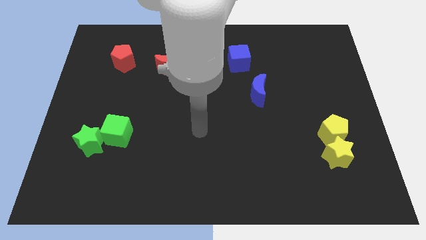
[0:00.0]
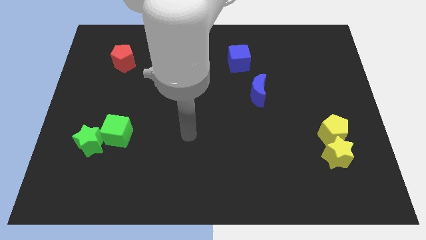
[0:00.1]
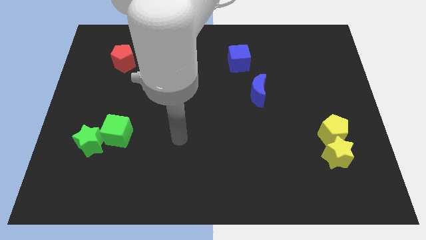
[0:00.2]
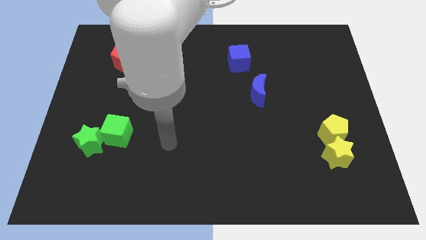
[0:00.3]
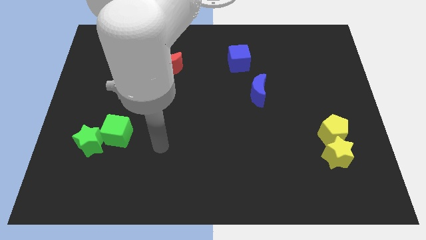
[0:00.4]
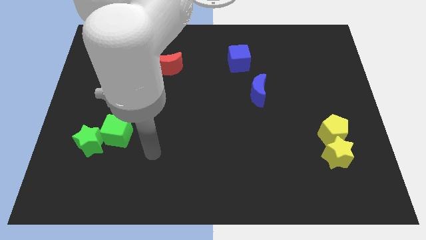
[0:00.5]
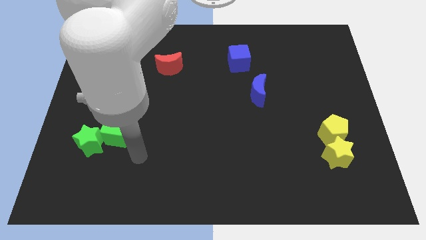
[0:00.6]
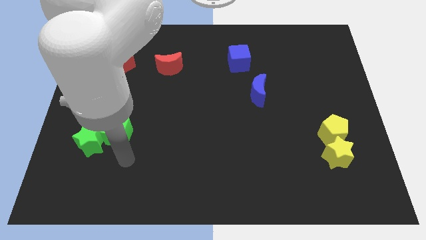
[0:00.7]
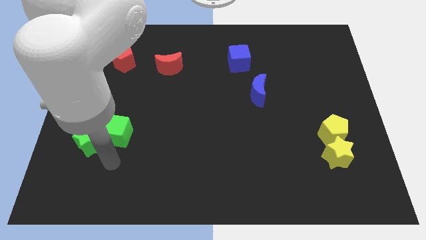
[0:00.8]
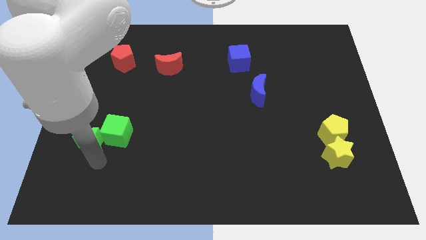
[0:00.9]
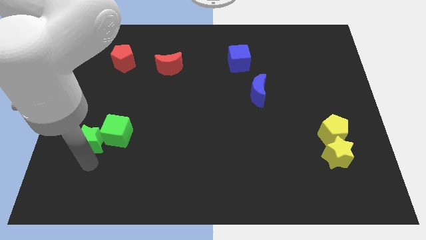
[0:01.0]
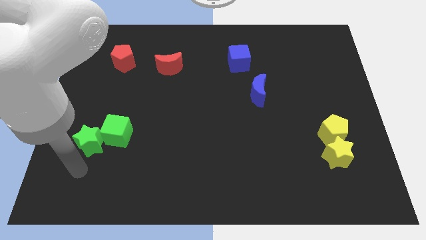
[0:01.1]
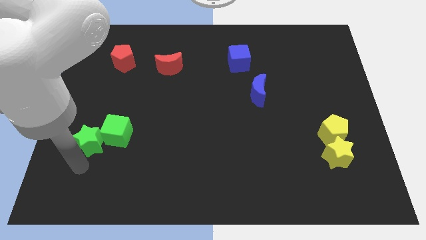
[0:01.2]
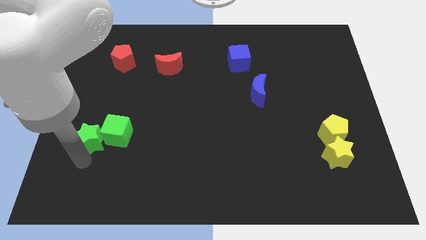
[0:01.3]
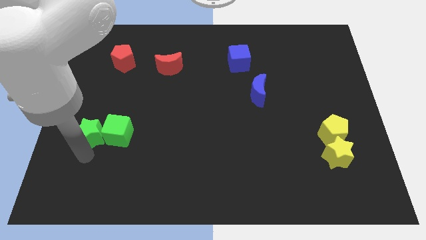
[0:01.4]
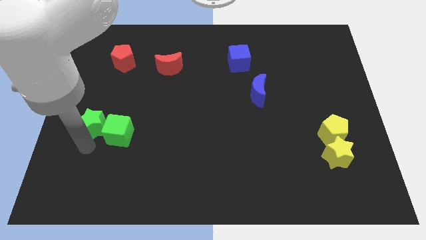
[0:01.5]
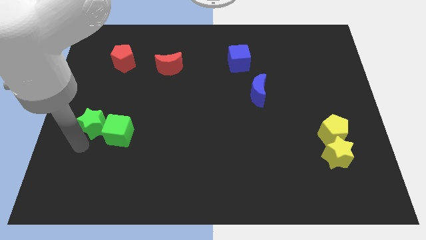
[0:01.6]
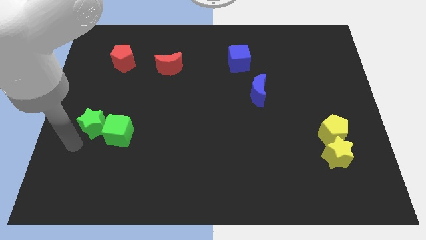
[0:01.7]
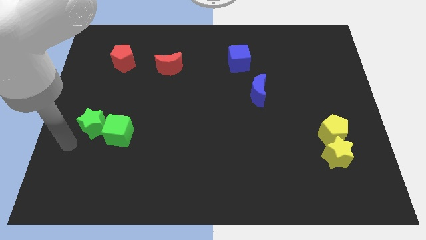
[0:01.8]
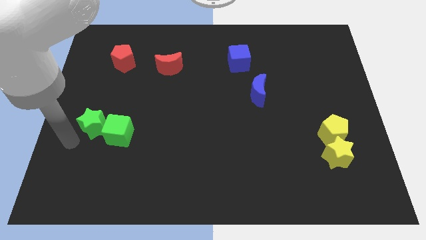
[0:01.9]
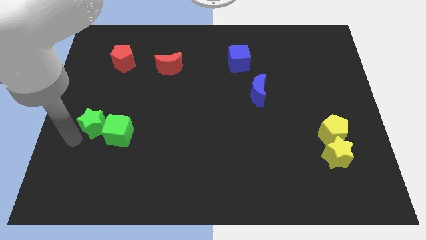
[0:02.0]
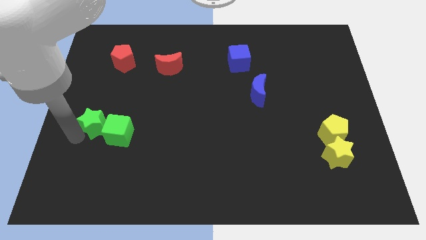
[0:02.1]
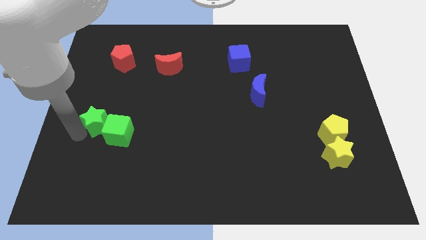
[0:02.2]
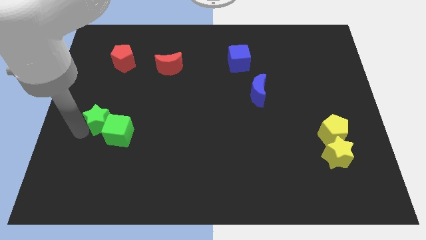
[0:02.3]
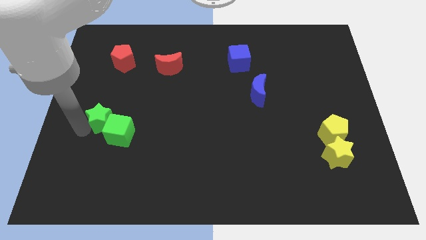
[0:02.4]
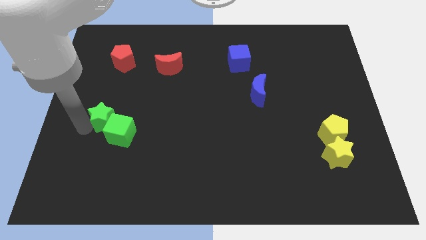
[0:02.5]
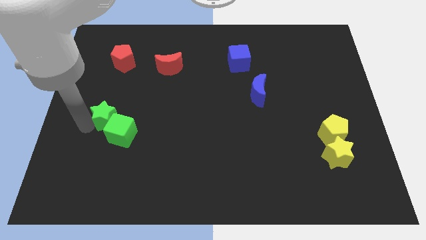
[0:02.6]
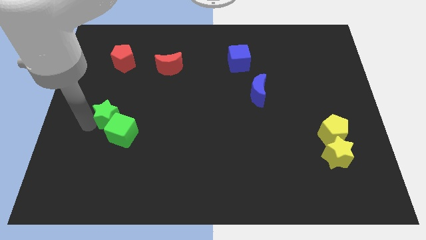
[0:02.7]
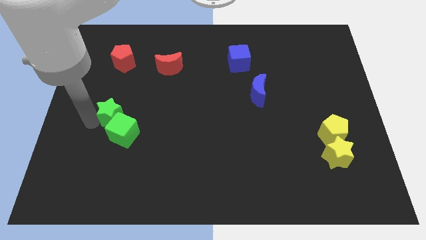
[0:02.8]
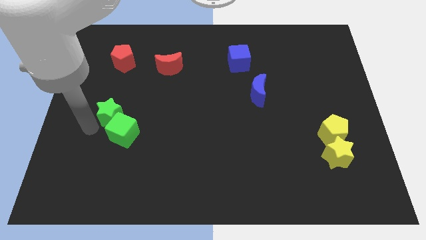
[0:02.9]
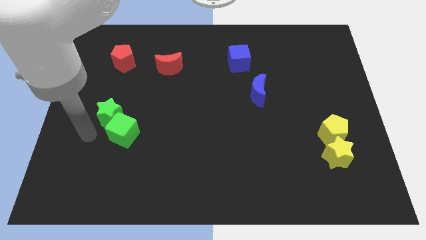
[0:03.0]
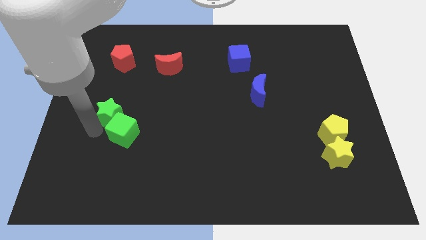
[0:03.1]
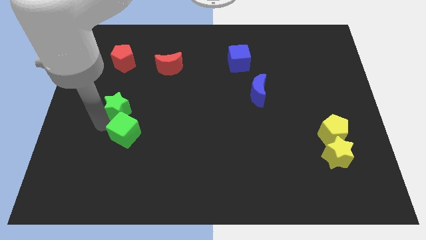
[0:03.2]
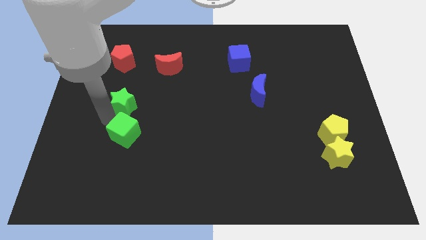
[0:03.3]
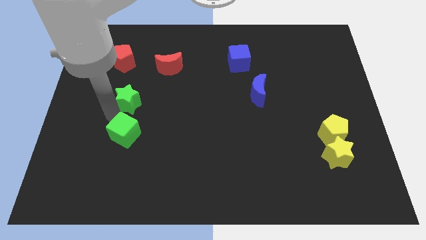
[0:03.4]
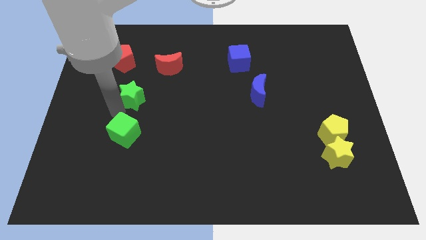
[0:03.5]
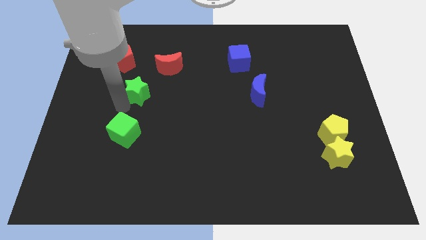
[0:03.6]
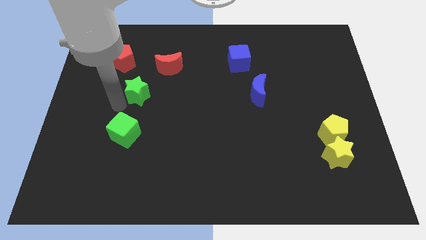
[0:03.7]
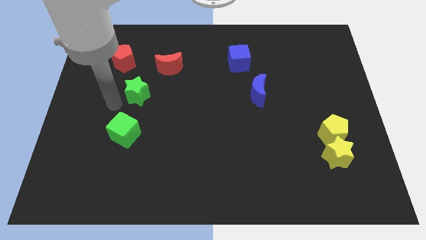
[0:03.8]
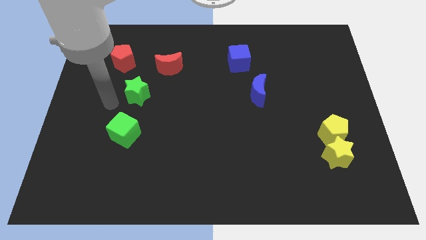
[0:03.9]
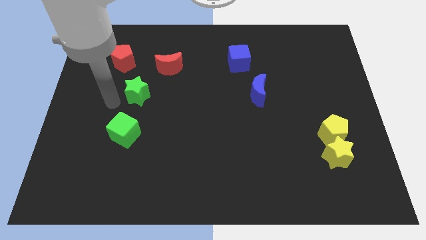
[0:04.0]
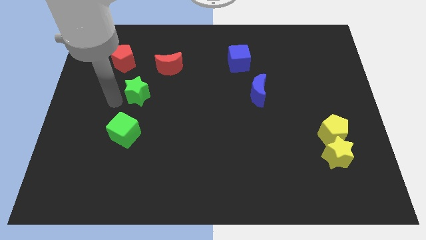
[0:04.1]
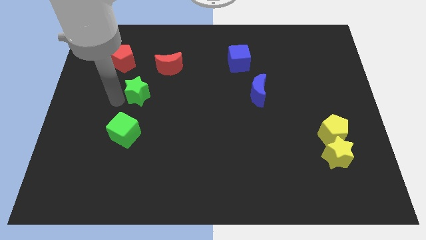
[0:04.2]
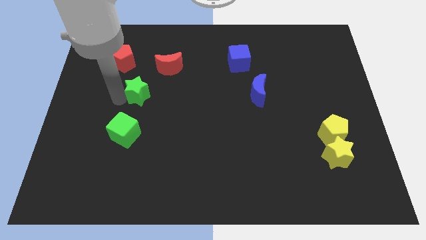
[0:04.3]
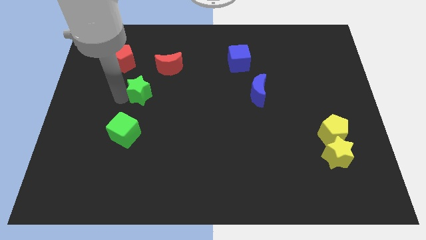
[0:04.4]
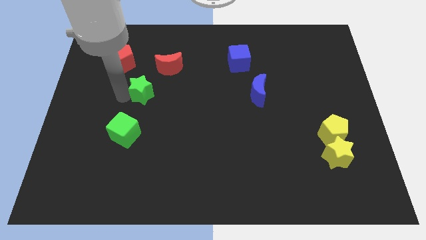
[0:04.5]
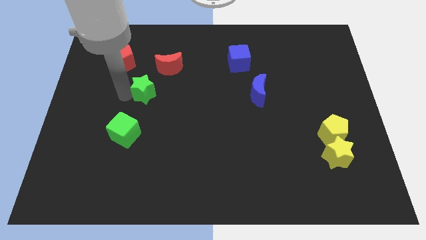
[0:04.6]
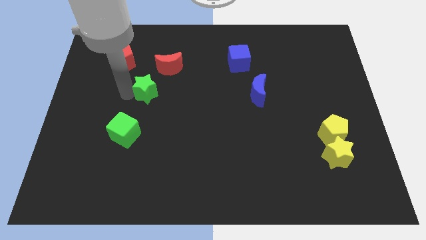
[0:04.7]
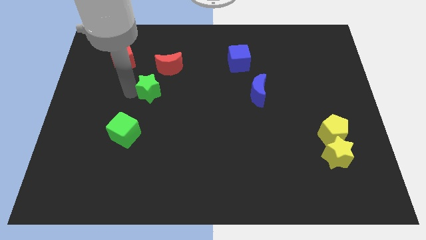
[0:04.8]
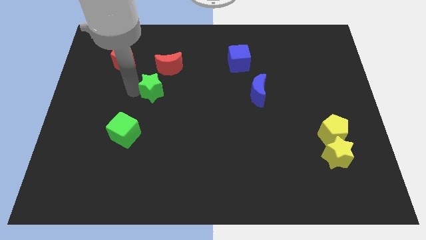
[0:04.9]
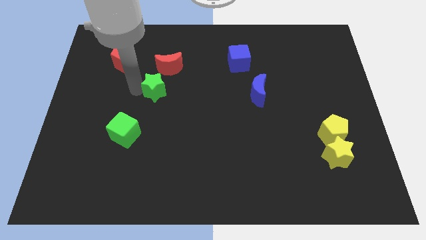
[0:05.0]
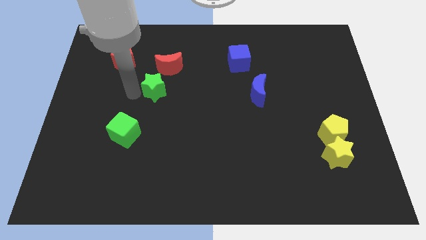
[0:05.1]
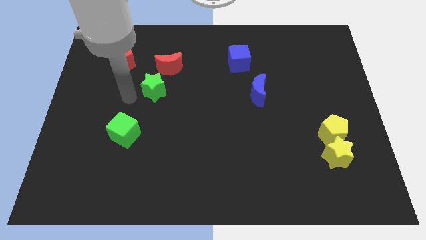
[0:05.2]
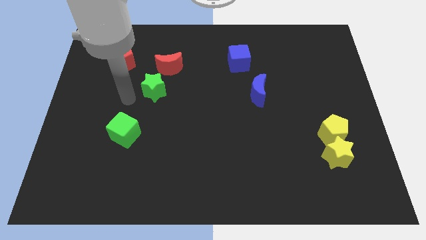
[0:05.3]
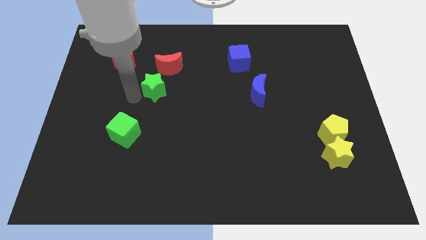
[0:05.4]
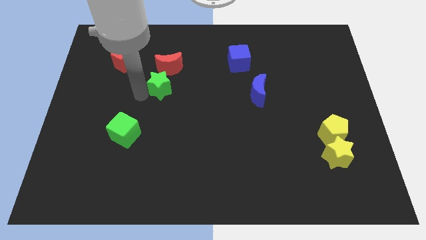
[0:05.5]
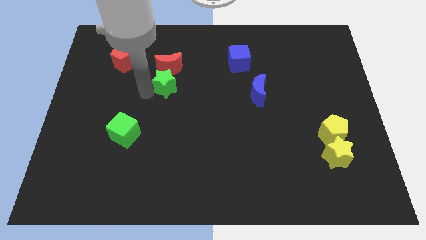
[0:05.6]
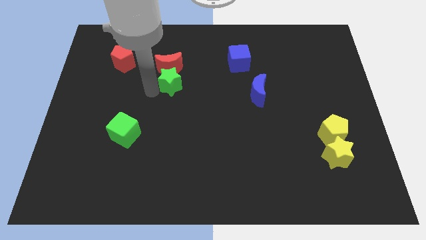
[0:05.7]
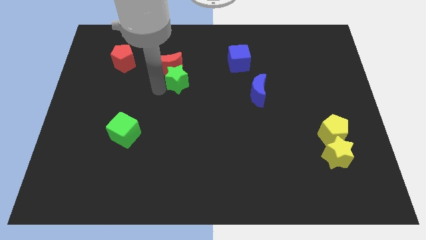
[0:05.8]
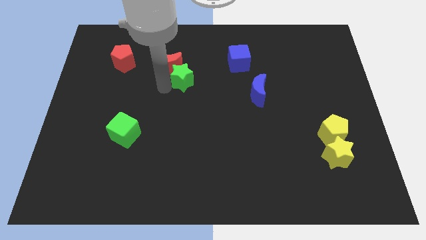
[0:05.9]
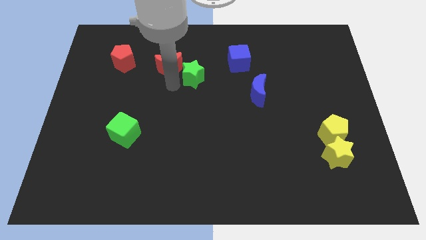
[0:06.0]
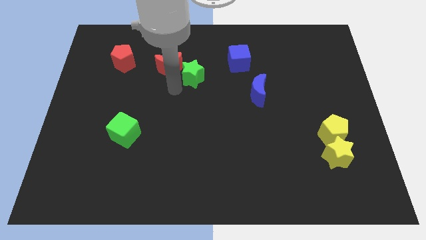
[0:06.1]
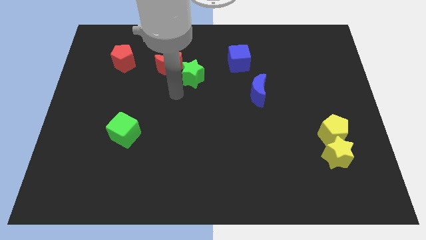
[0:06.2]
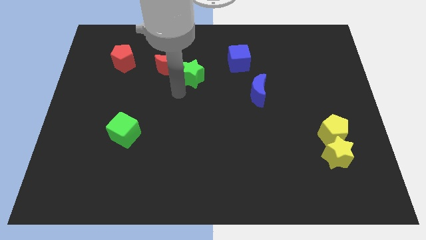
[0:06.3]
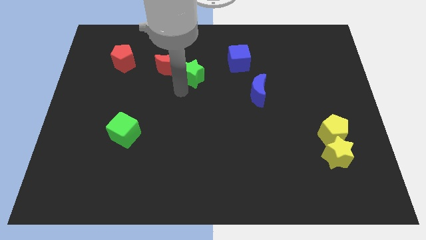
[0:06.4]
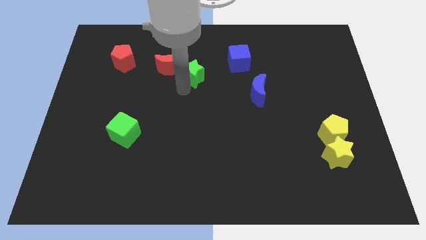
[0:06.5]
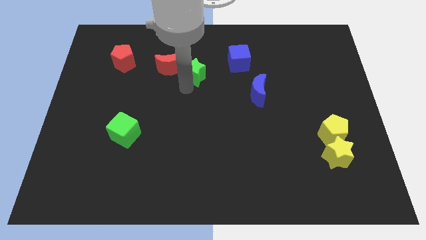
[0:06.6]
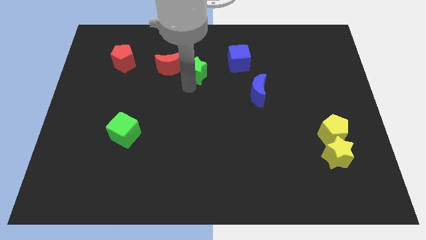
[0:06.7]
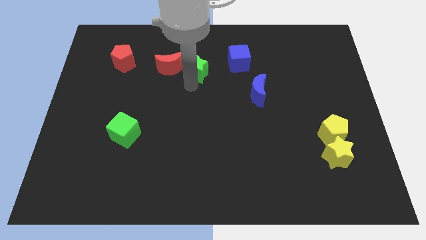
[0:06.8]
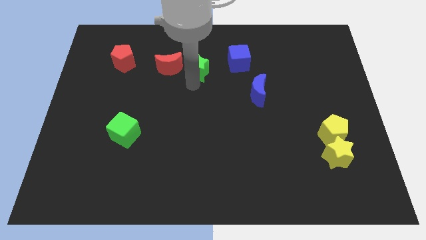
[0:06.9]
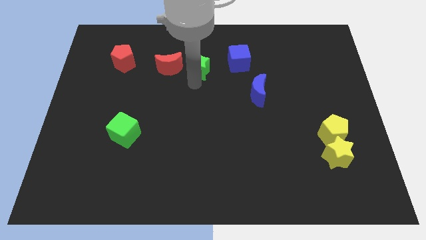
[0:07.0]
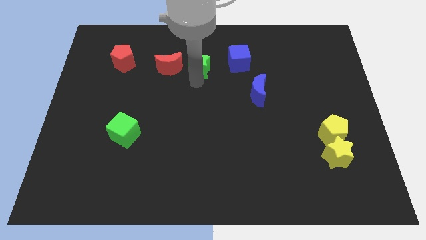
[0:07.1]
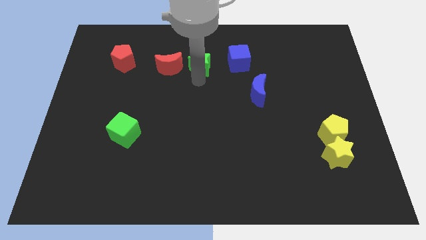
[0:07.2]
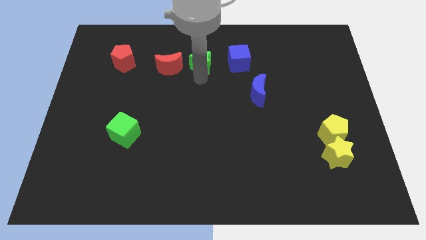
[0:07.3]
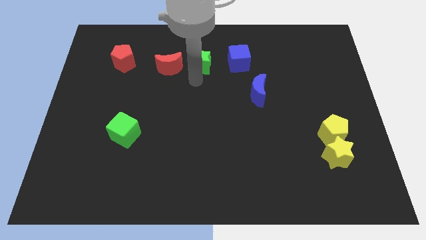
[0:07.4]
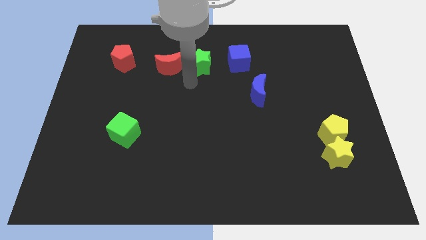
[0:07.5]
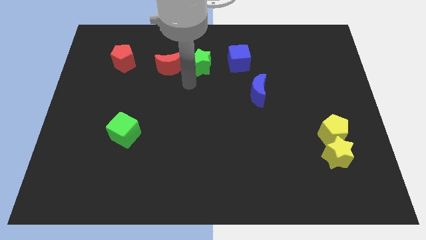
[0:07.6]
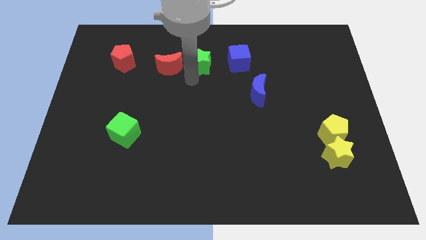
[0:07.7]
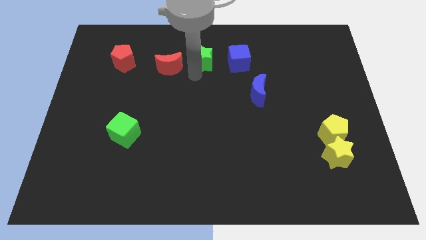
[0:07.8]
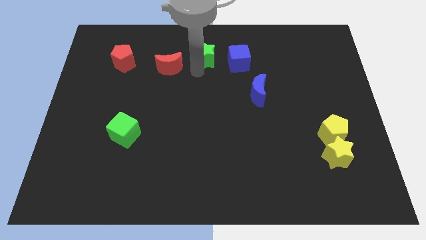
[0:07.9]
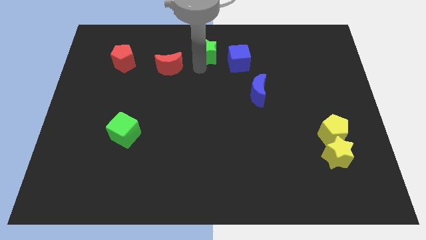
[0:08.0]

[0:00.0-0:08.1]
put the green star to the top side
